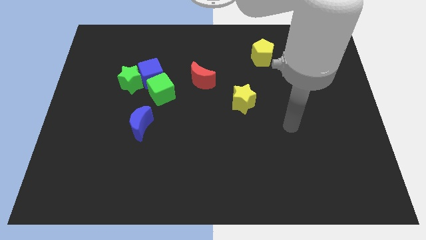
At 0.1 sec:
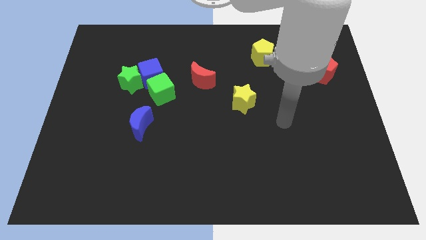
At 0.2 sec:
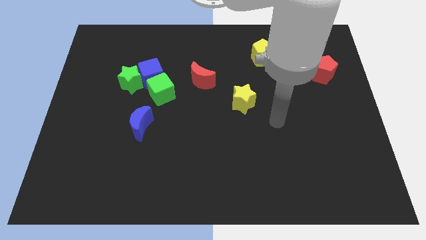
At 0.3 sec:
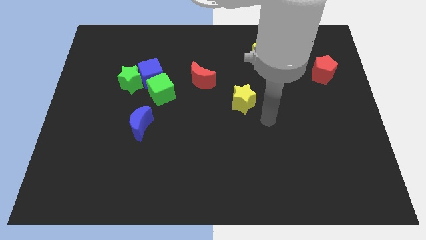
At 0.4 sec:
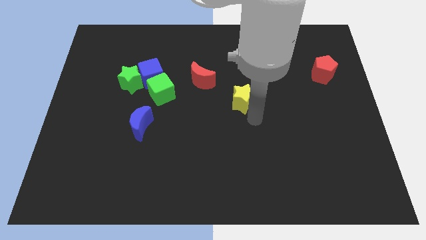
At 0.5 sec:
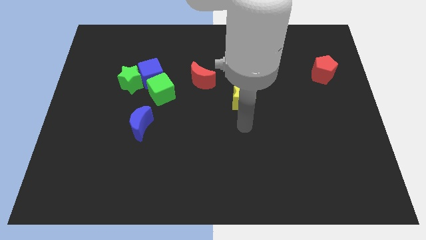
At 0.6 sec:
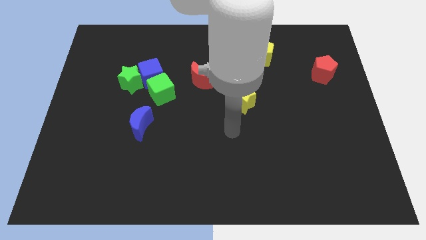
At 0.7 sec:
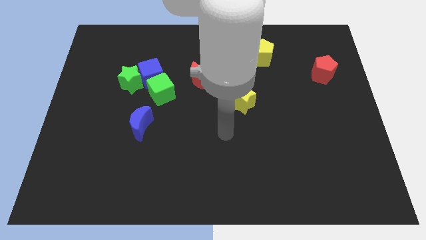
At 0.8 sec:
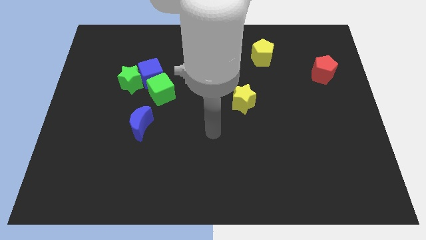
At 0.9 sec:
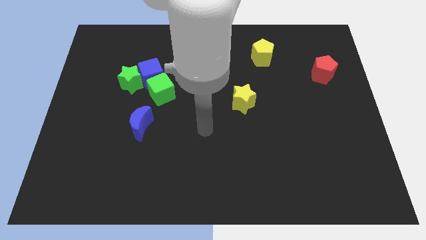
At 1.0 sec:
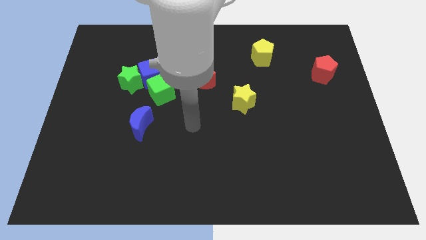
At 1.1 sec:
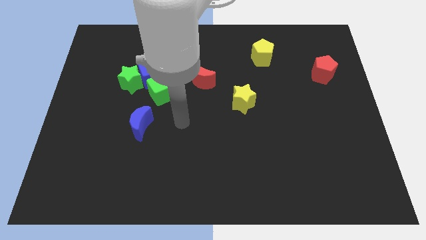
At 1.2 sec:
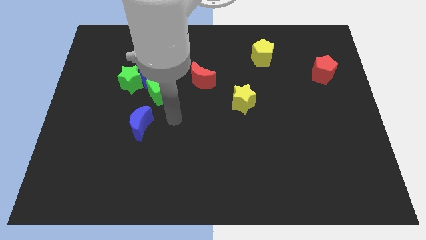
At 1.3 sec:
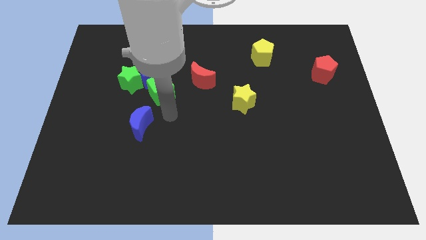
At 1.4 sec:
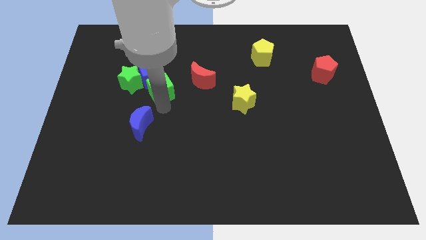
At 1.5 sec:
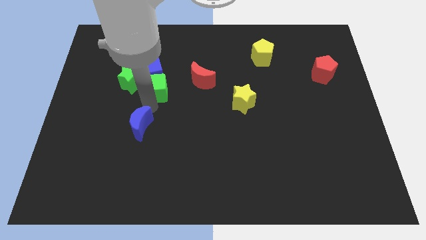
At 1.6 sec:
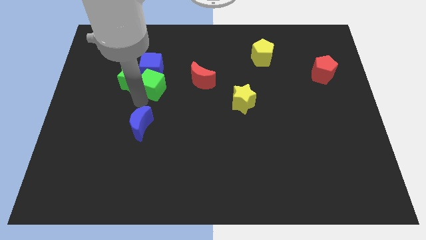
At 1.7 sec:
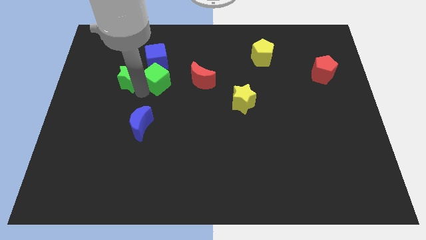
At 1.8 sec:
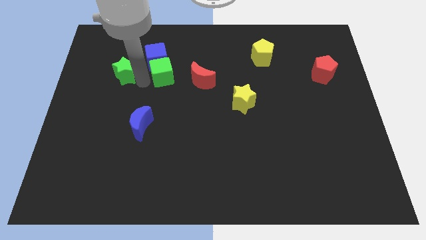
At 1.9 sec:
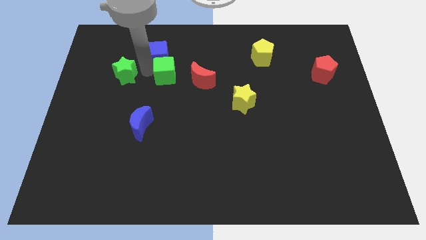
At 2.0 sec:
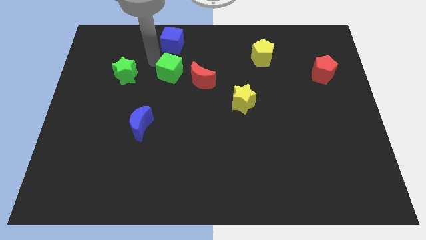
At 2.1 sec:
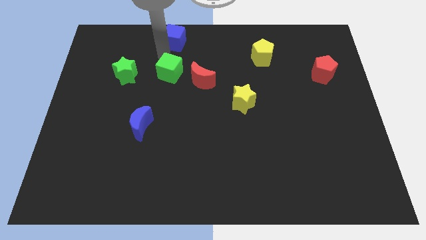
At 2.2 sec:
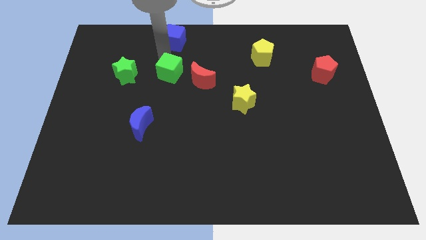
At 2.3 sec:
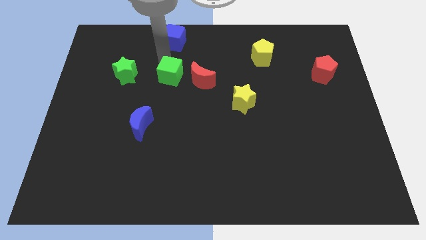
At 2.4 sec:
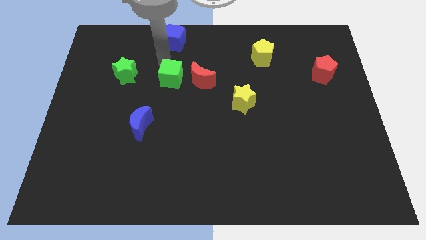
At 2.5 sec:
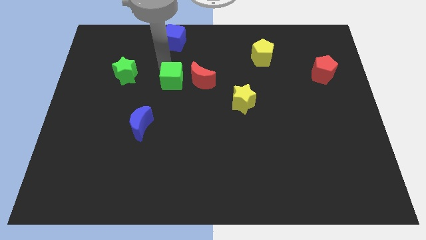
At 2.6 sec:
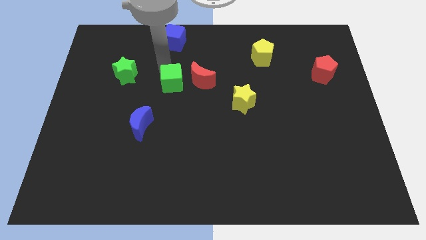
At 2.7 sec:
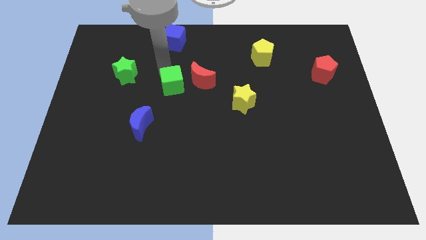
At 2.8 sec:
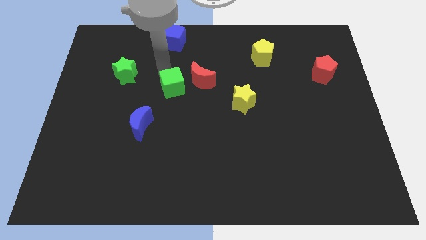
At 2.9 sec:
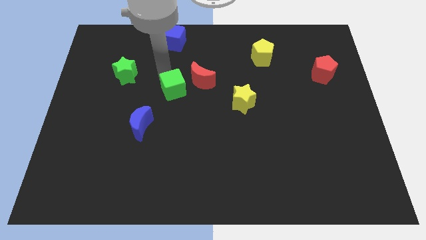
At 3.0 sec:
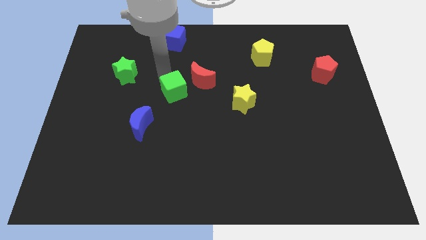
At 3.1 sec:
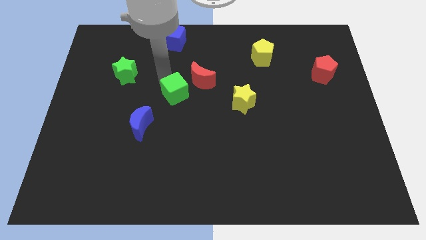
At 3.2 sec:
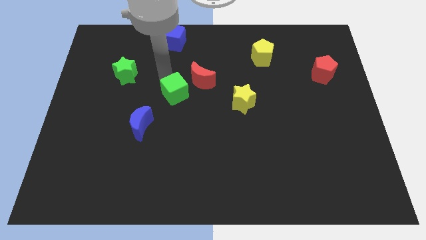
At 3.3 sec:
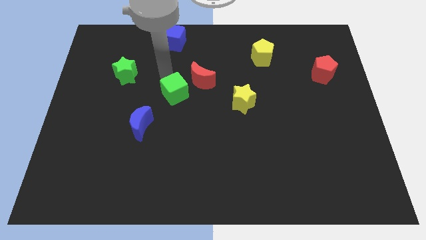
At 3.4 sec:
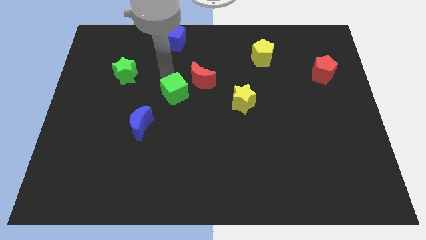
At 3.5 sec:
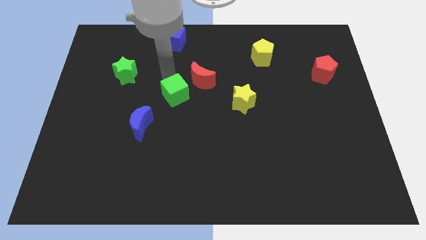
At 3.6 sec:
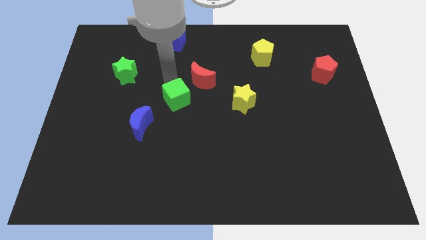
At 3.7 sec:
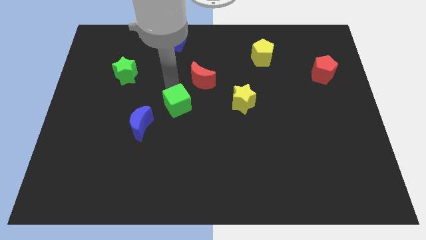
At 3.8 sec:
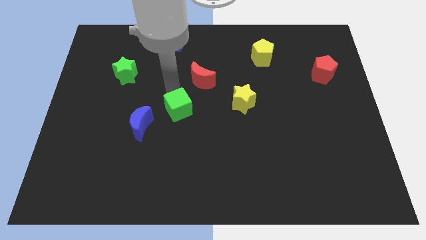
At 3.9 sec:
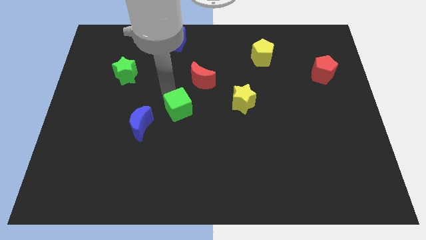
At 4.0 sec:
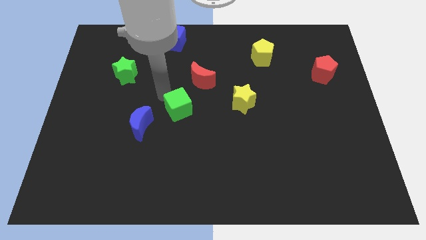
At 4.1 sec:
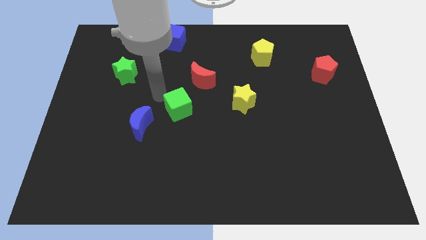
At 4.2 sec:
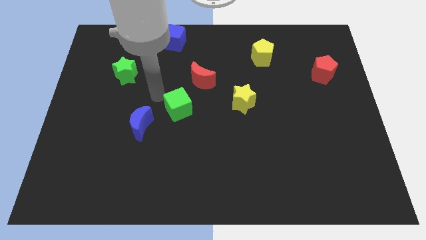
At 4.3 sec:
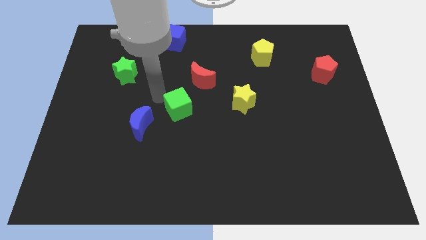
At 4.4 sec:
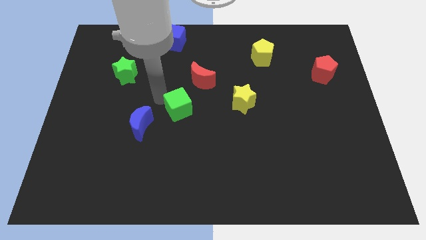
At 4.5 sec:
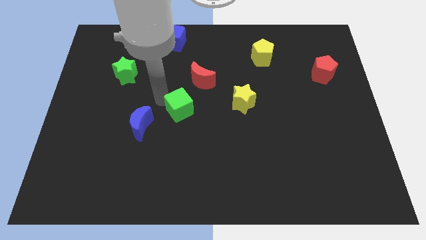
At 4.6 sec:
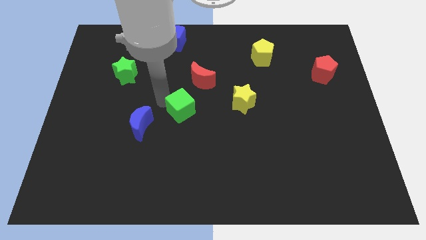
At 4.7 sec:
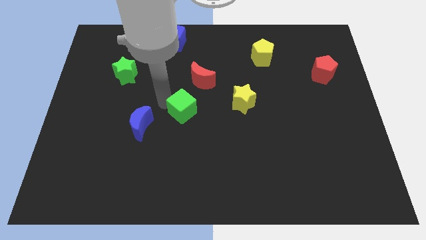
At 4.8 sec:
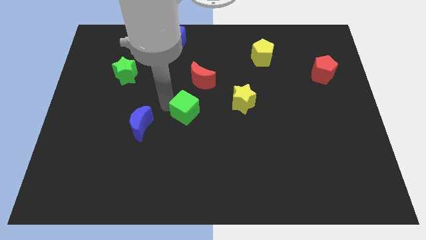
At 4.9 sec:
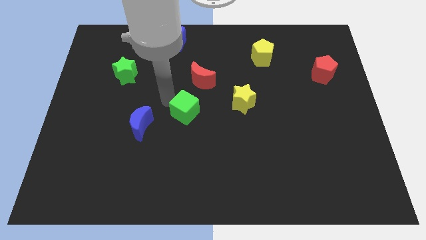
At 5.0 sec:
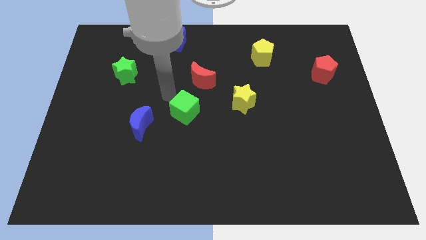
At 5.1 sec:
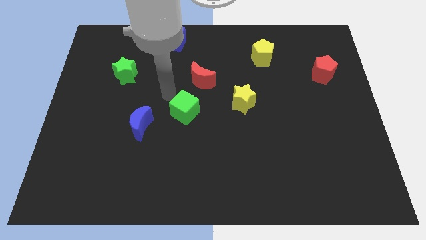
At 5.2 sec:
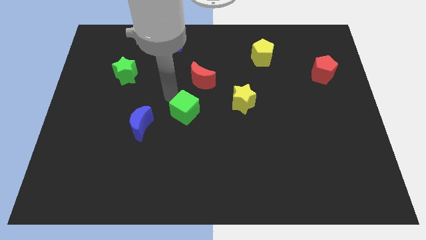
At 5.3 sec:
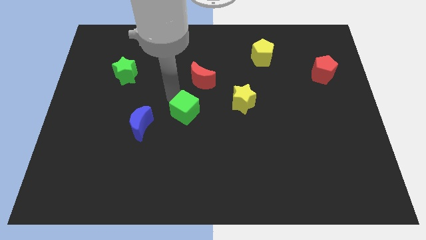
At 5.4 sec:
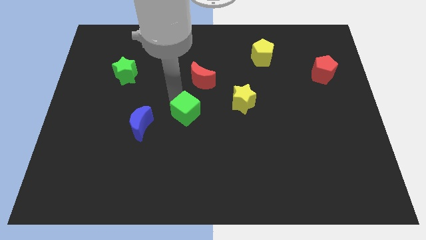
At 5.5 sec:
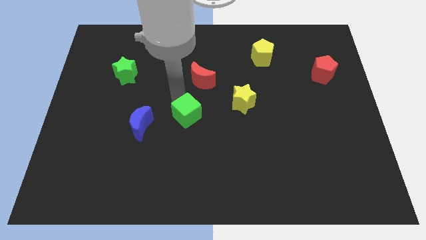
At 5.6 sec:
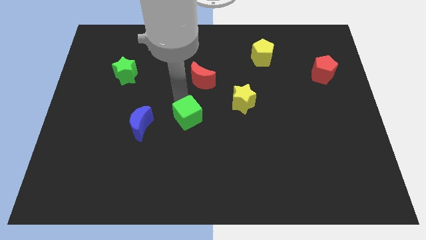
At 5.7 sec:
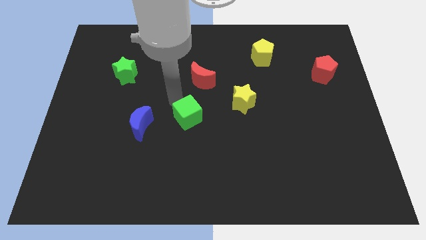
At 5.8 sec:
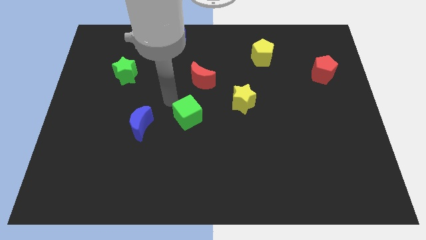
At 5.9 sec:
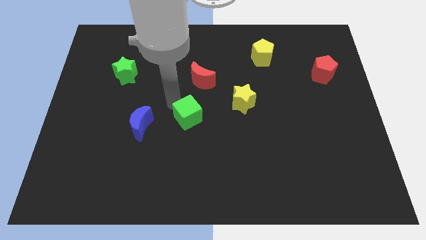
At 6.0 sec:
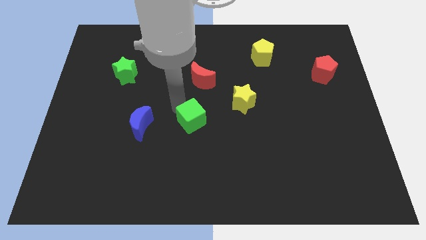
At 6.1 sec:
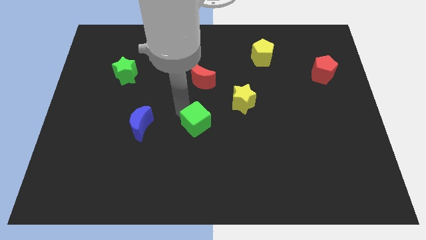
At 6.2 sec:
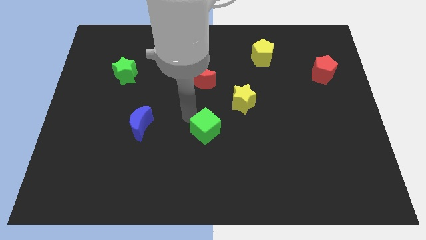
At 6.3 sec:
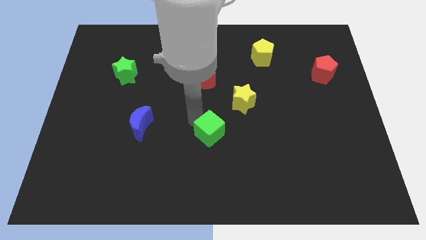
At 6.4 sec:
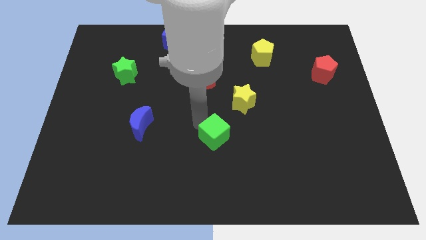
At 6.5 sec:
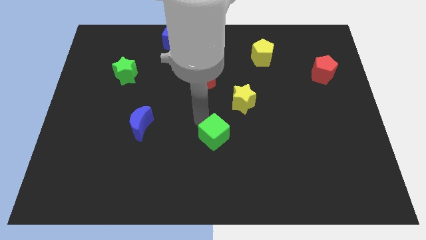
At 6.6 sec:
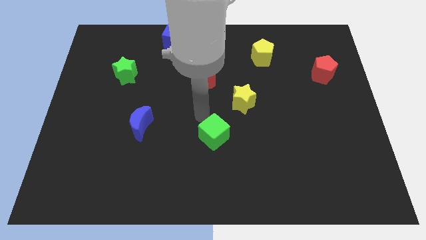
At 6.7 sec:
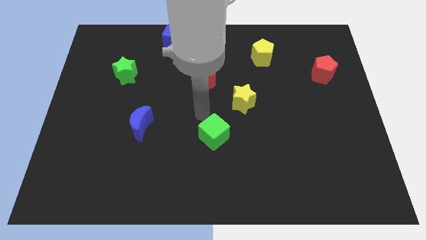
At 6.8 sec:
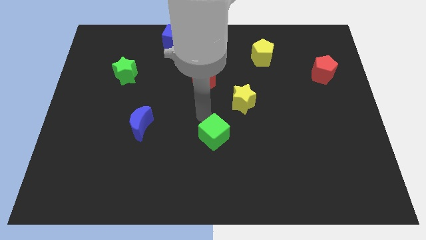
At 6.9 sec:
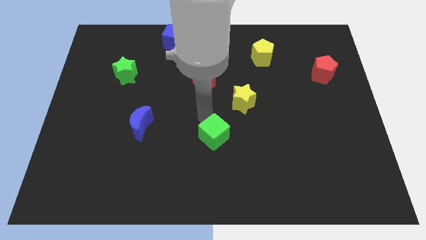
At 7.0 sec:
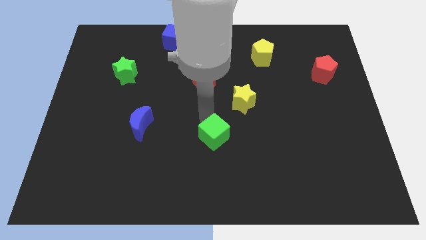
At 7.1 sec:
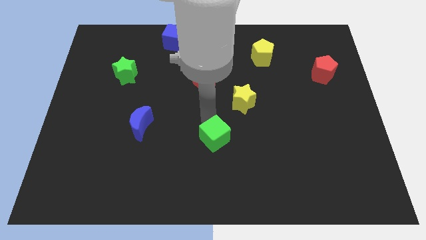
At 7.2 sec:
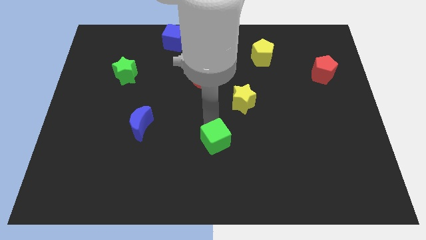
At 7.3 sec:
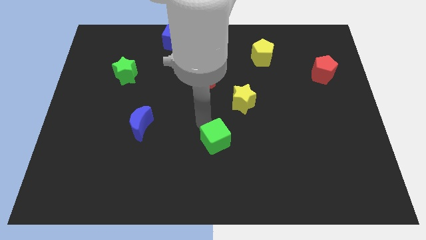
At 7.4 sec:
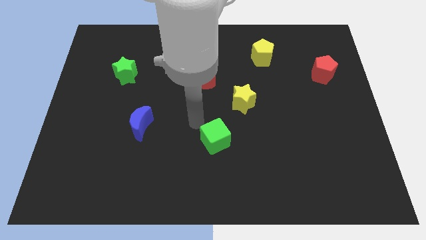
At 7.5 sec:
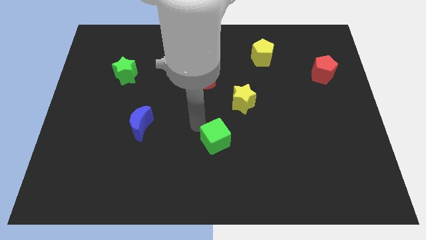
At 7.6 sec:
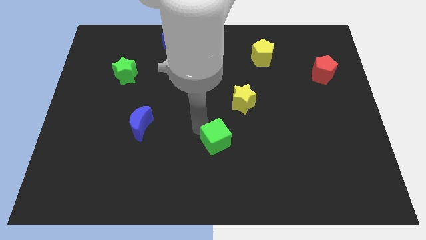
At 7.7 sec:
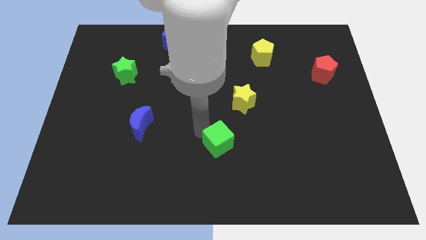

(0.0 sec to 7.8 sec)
move the green cube diagonally down and to the right
